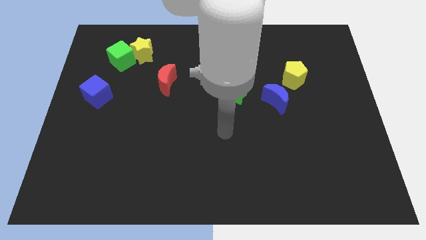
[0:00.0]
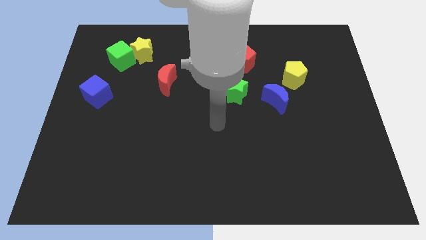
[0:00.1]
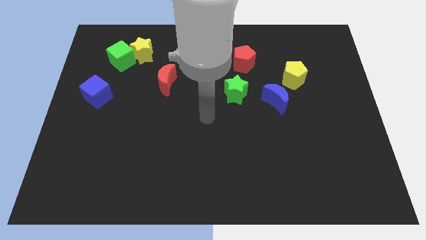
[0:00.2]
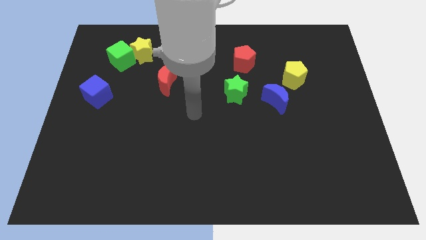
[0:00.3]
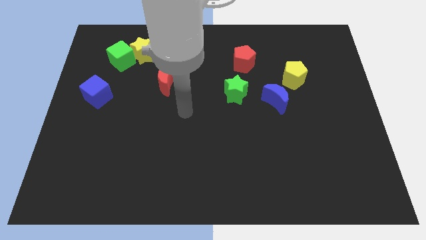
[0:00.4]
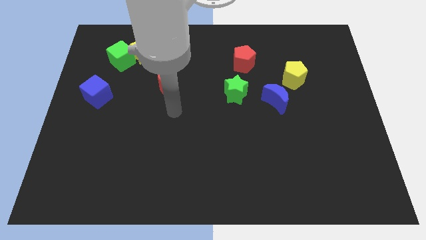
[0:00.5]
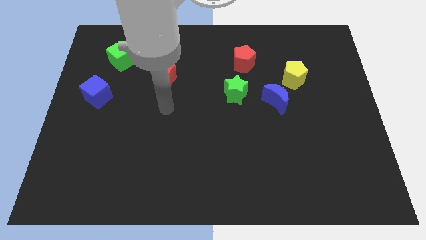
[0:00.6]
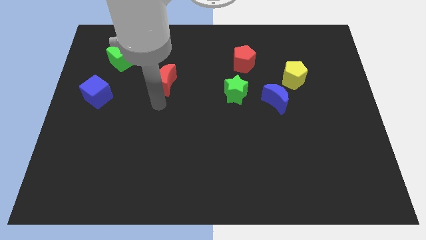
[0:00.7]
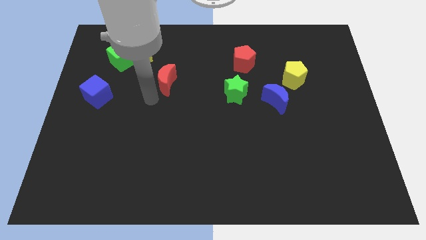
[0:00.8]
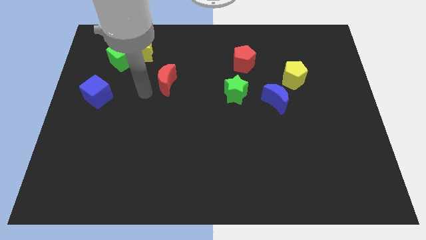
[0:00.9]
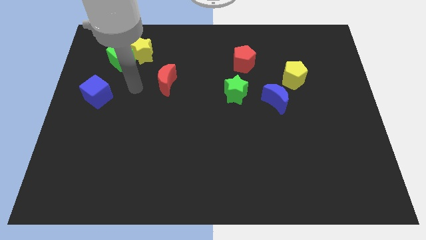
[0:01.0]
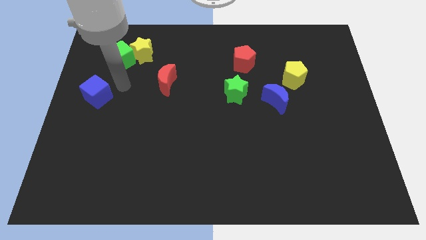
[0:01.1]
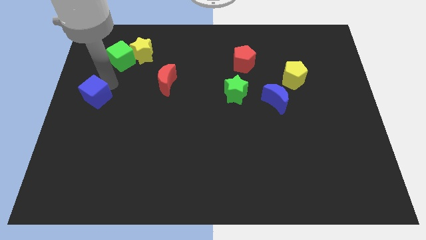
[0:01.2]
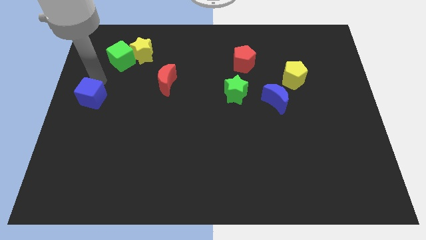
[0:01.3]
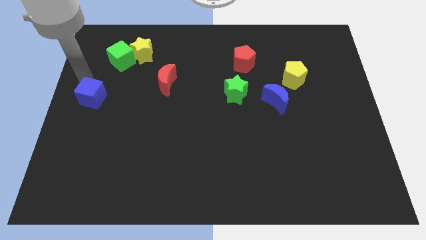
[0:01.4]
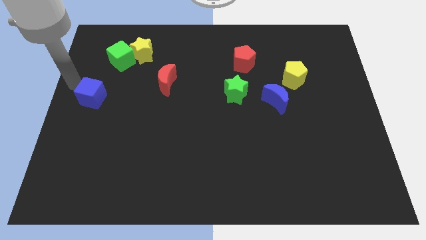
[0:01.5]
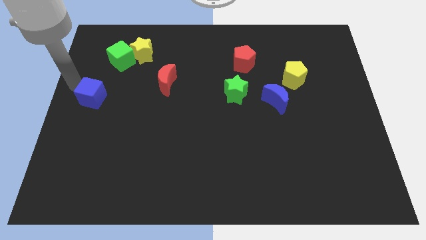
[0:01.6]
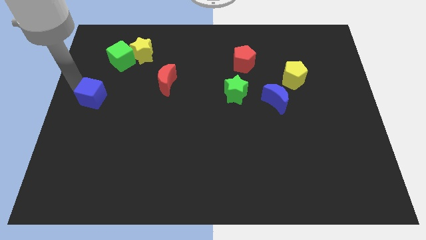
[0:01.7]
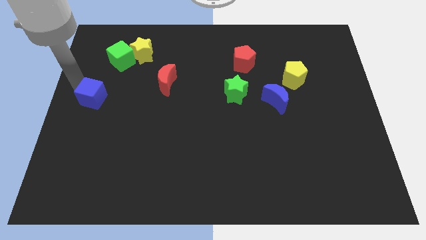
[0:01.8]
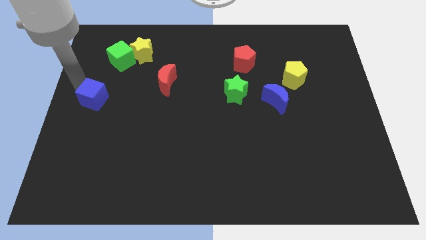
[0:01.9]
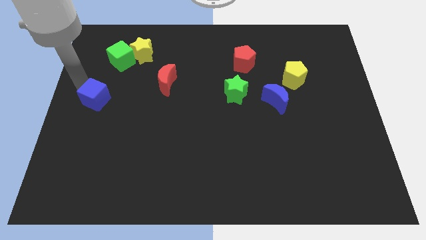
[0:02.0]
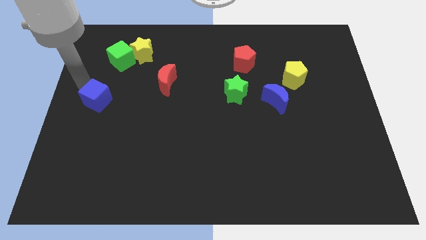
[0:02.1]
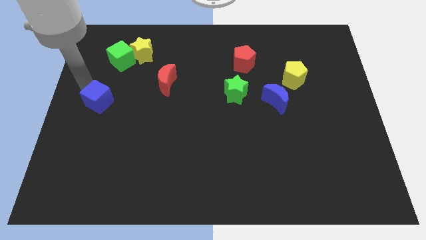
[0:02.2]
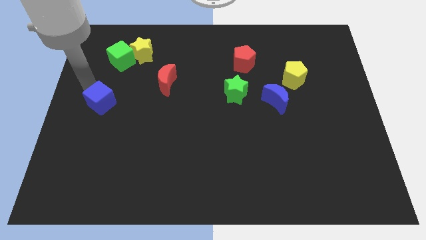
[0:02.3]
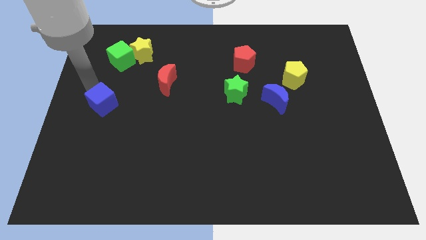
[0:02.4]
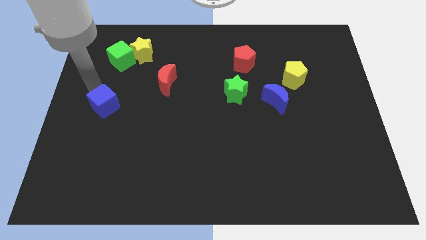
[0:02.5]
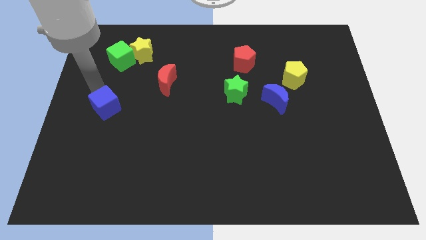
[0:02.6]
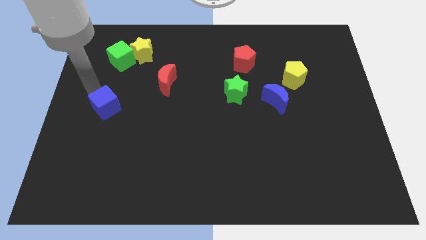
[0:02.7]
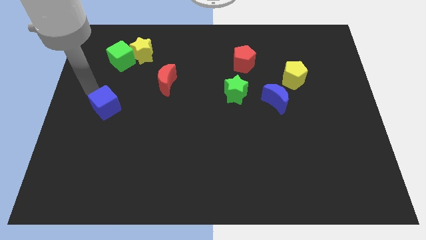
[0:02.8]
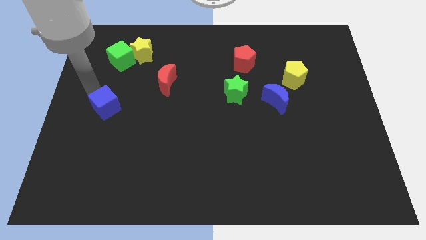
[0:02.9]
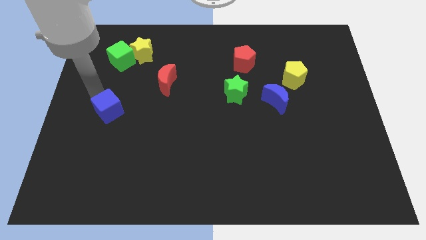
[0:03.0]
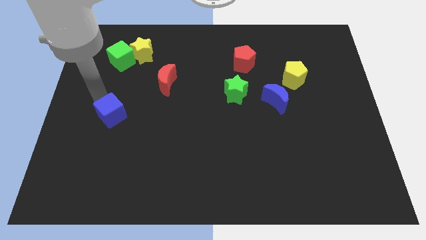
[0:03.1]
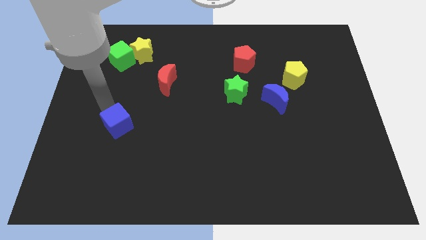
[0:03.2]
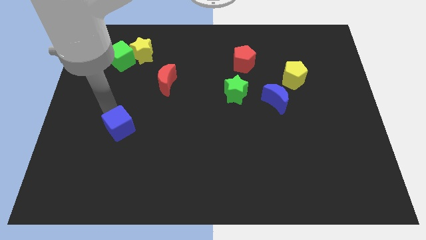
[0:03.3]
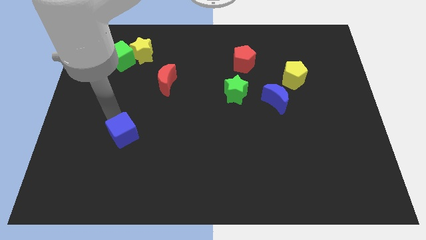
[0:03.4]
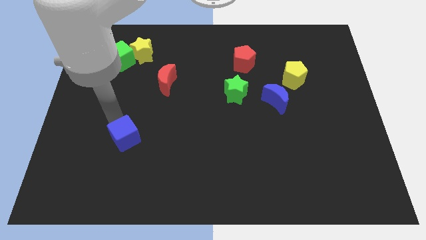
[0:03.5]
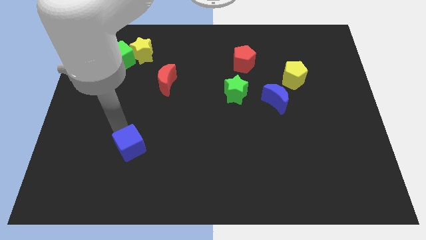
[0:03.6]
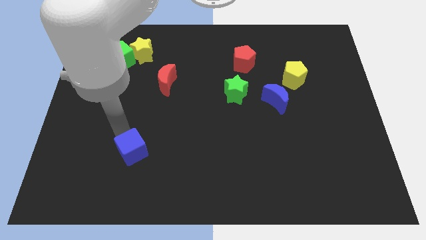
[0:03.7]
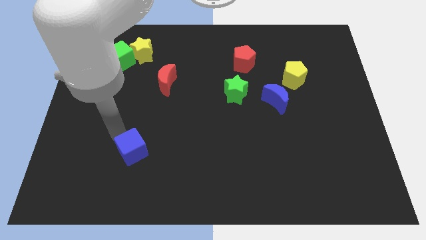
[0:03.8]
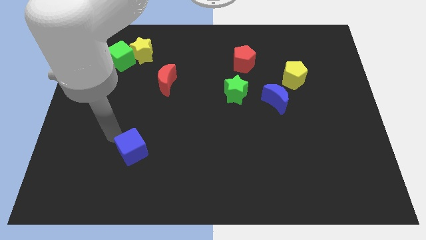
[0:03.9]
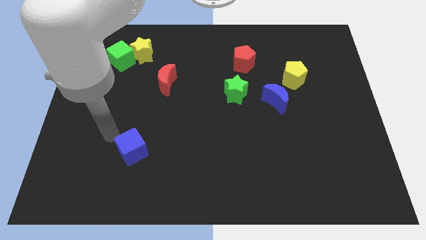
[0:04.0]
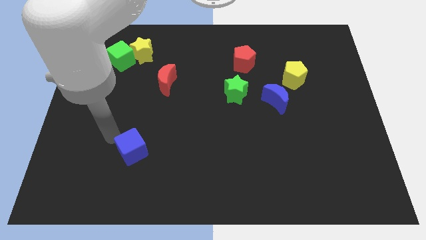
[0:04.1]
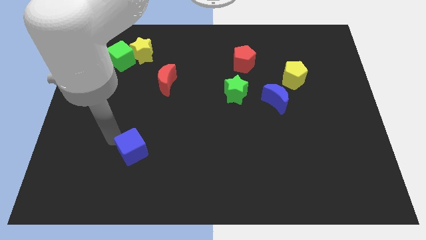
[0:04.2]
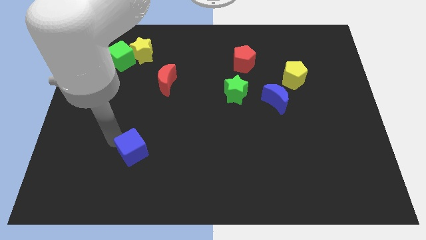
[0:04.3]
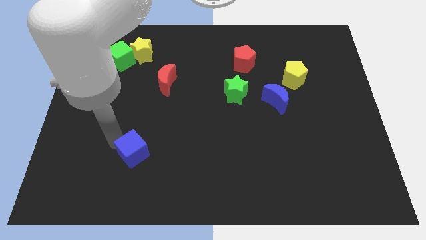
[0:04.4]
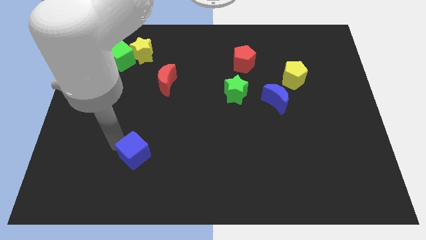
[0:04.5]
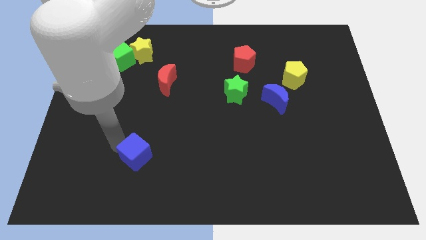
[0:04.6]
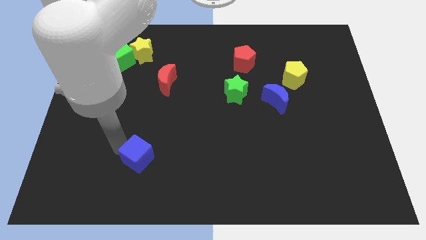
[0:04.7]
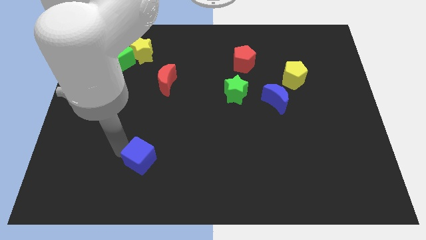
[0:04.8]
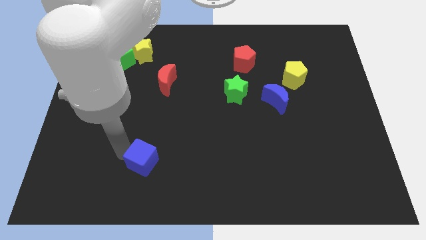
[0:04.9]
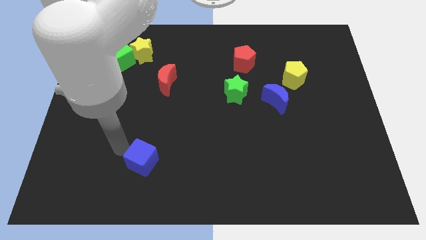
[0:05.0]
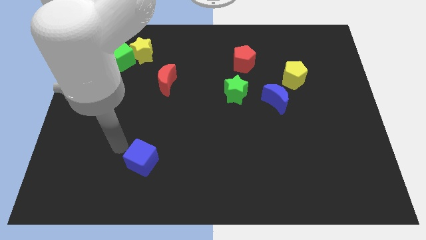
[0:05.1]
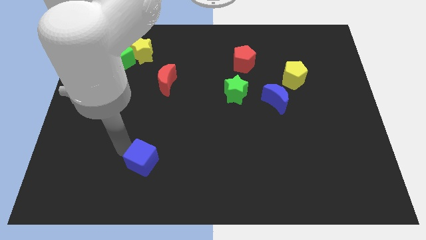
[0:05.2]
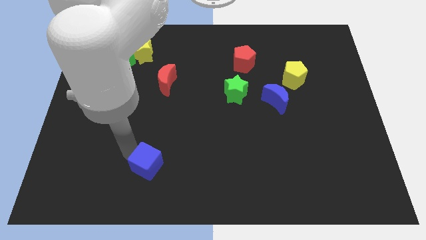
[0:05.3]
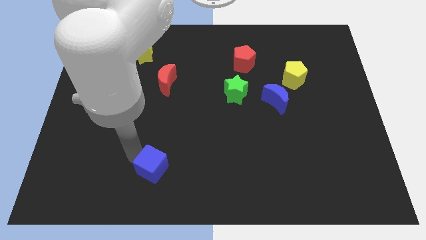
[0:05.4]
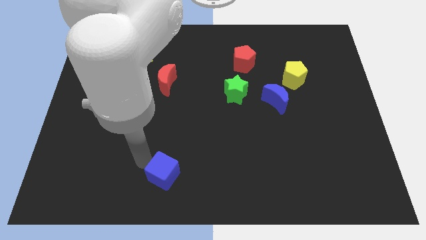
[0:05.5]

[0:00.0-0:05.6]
move the blue cube to the bottom side

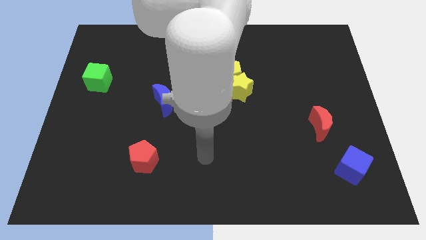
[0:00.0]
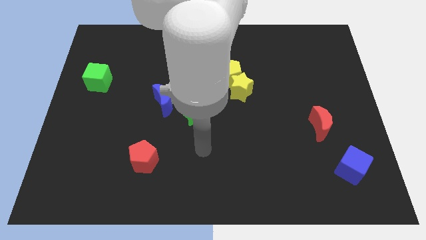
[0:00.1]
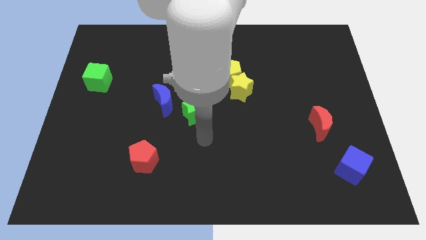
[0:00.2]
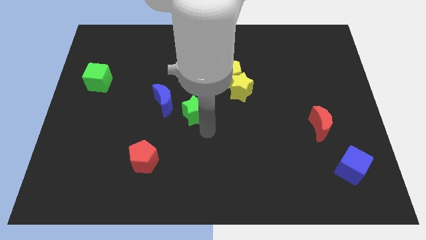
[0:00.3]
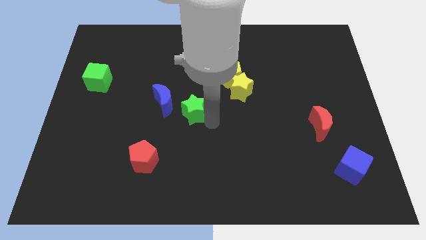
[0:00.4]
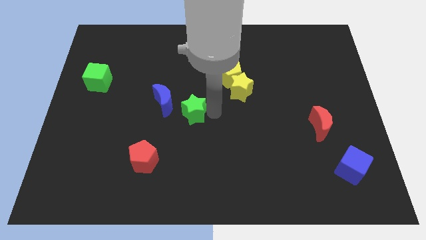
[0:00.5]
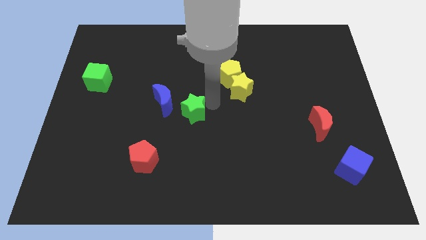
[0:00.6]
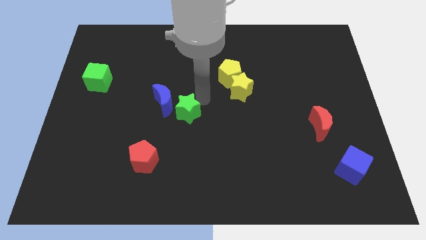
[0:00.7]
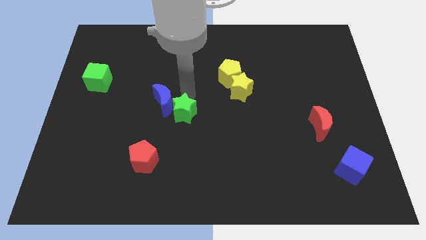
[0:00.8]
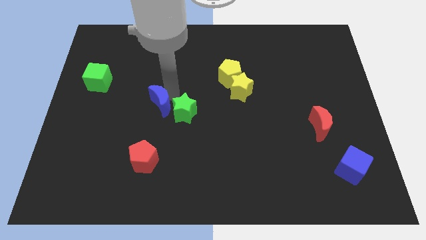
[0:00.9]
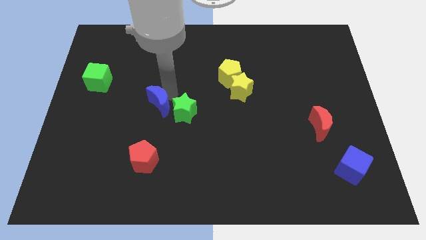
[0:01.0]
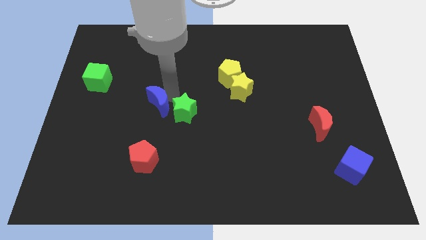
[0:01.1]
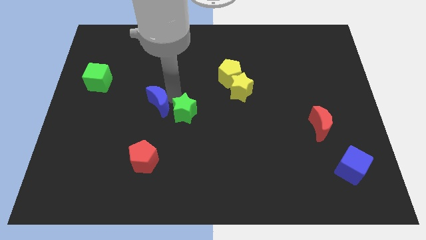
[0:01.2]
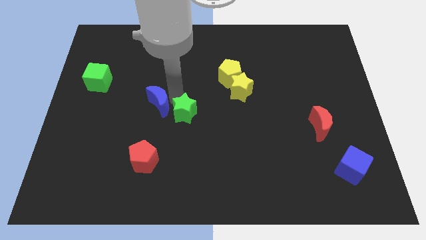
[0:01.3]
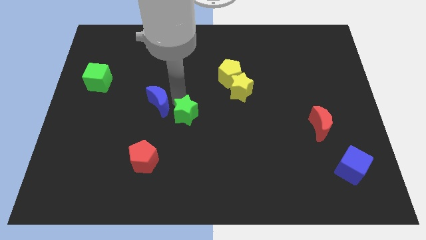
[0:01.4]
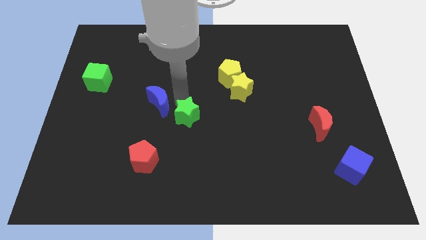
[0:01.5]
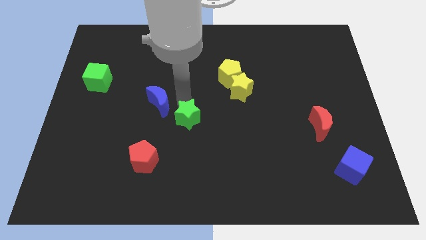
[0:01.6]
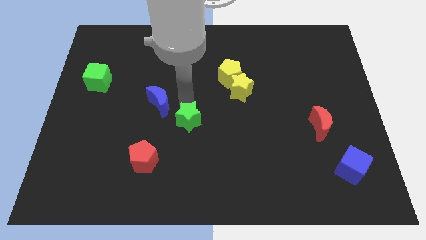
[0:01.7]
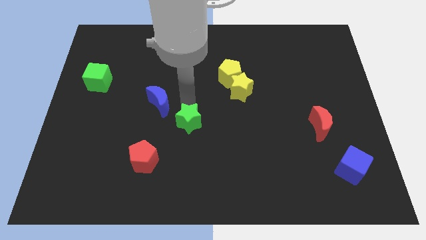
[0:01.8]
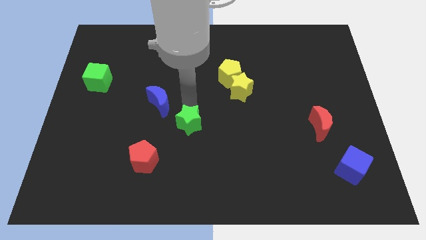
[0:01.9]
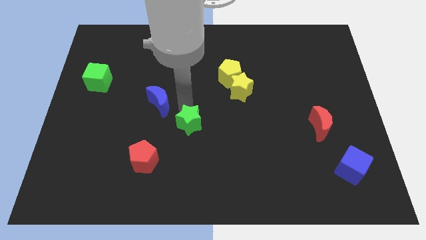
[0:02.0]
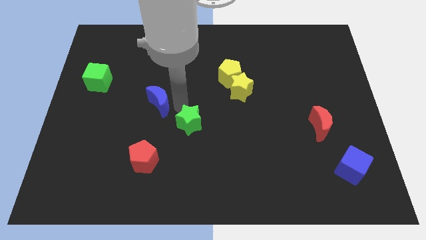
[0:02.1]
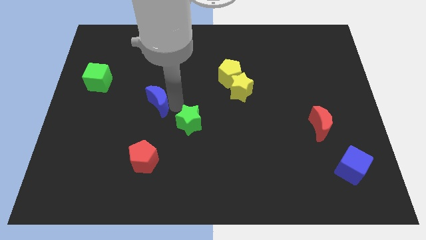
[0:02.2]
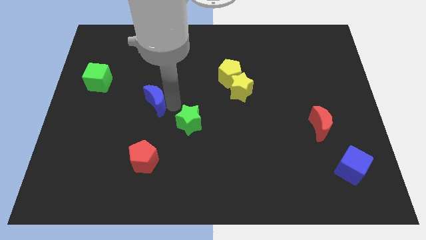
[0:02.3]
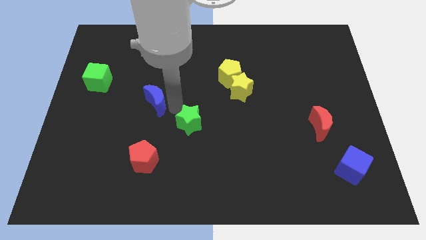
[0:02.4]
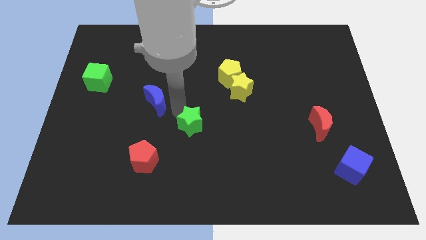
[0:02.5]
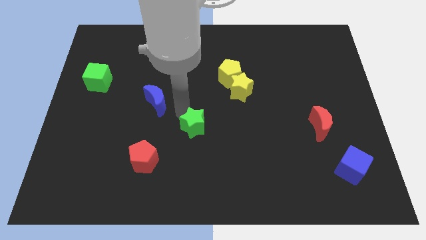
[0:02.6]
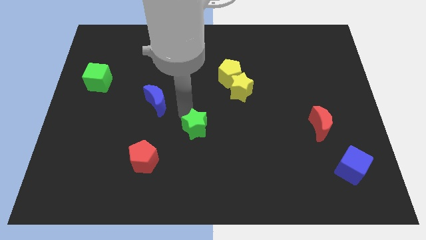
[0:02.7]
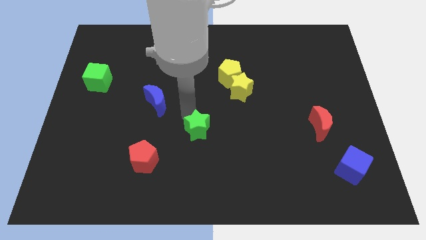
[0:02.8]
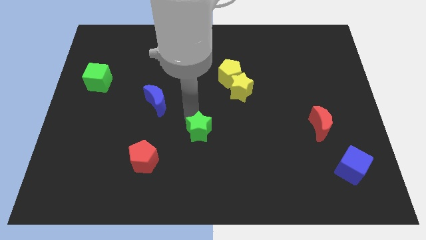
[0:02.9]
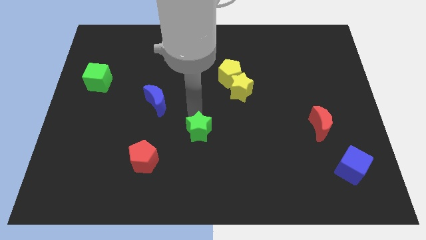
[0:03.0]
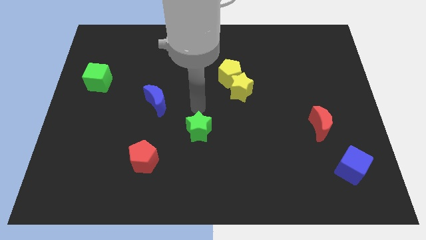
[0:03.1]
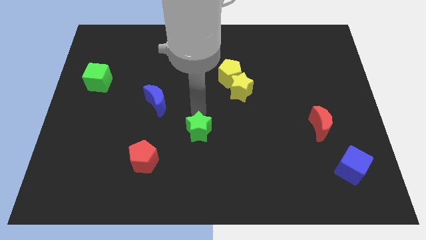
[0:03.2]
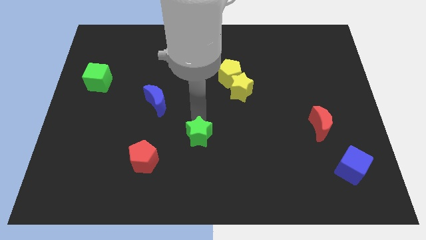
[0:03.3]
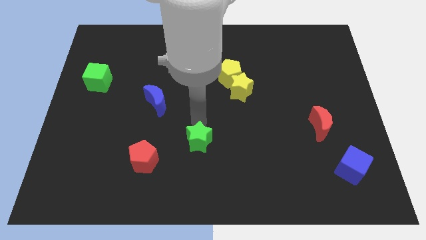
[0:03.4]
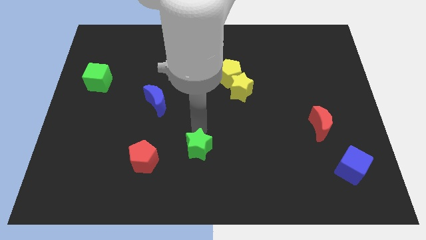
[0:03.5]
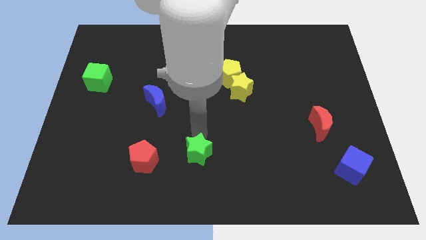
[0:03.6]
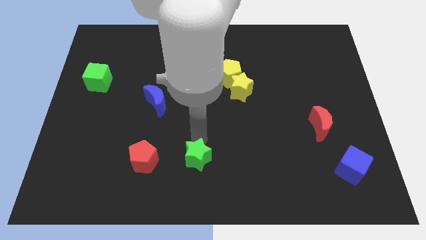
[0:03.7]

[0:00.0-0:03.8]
move the green star to the bottom
